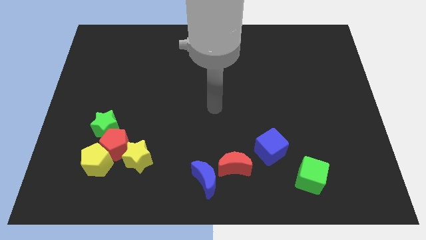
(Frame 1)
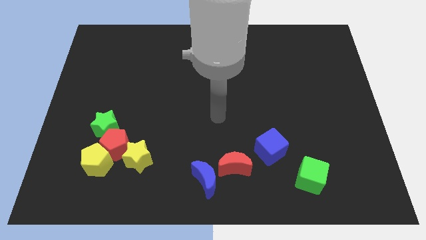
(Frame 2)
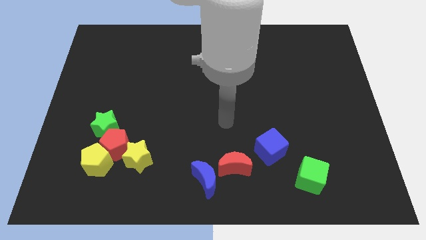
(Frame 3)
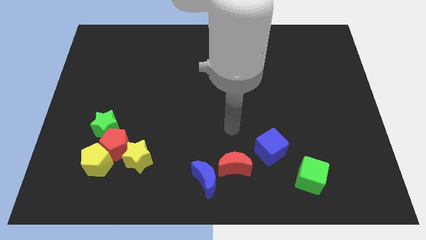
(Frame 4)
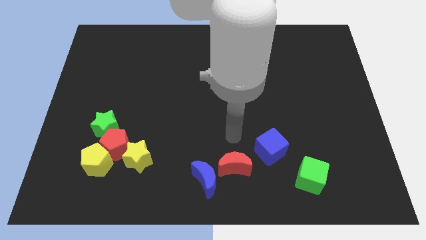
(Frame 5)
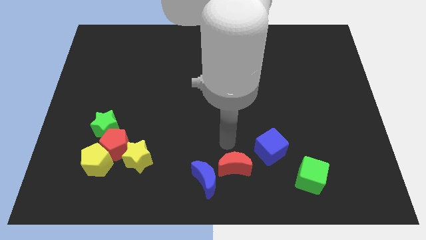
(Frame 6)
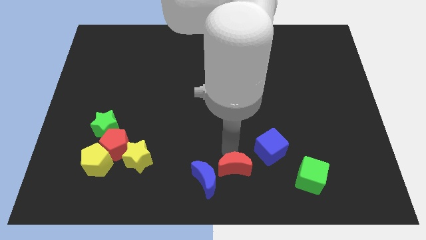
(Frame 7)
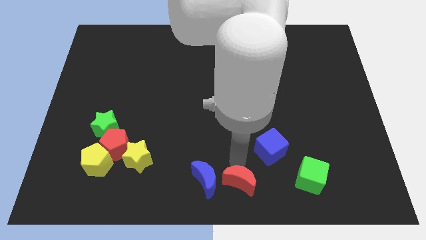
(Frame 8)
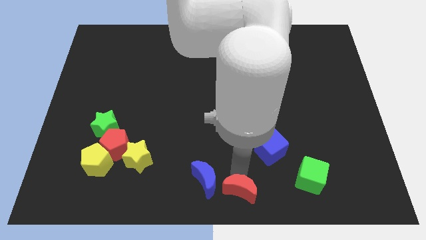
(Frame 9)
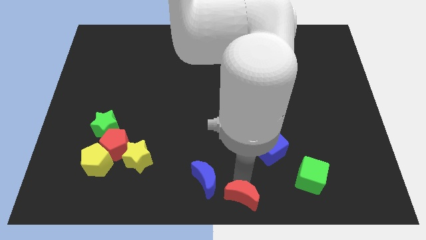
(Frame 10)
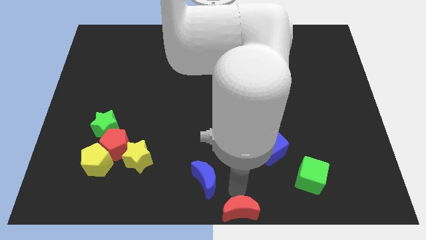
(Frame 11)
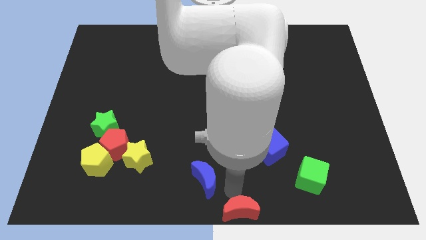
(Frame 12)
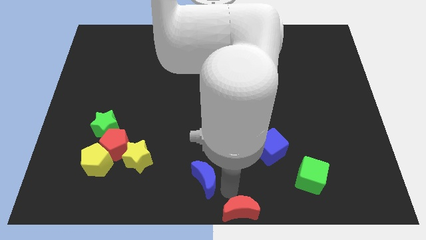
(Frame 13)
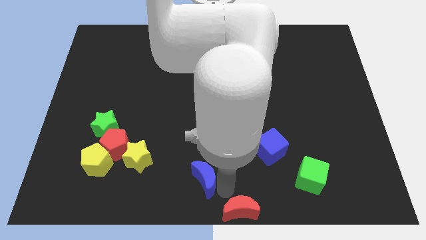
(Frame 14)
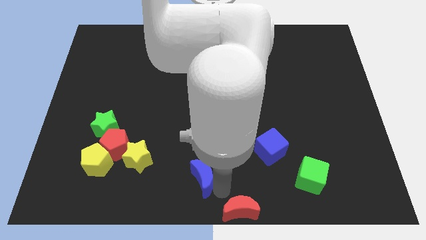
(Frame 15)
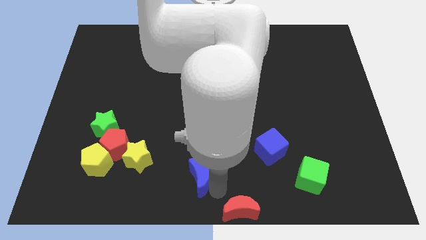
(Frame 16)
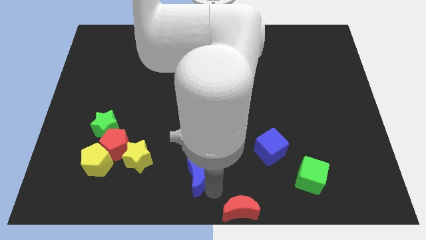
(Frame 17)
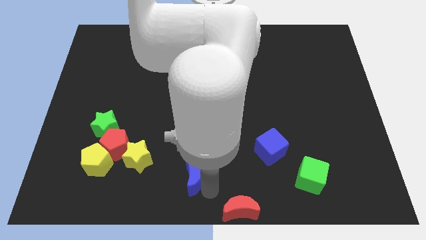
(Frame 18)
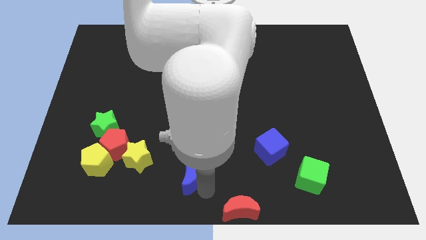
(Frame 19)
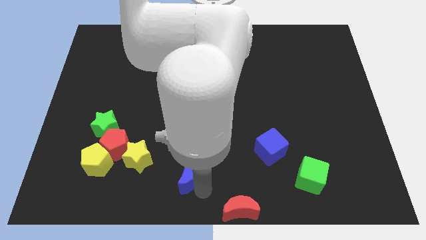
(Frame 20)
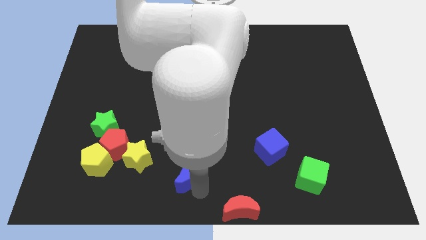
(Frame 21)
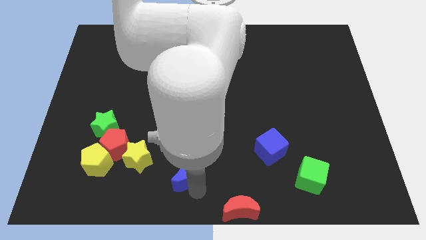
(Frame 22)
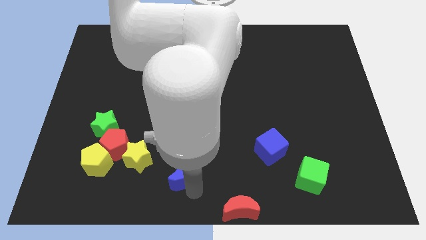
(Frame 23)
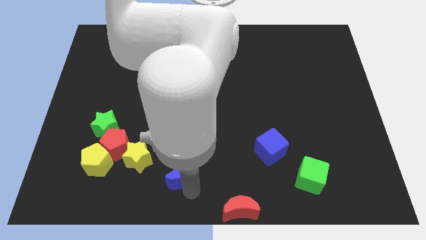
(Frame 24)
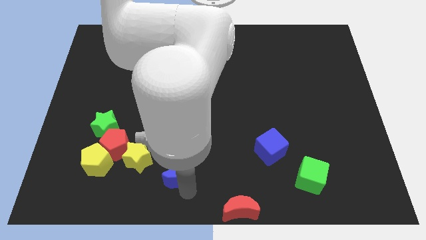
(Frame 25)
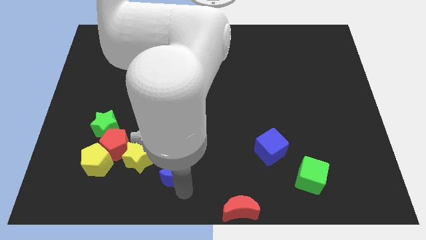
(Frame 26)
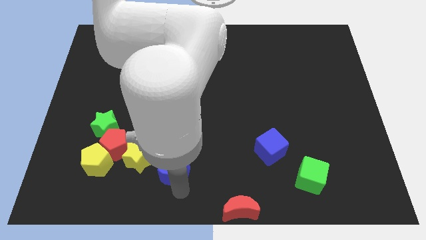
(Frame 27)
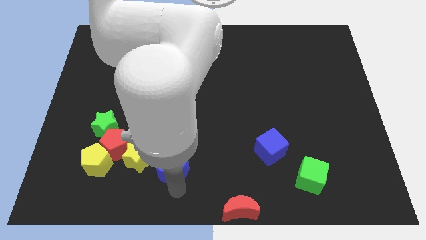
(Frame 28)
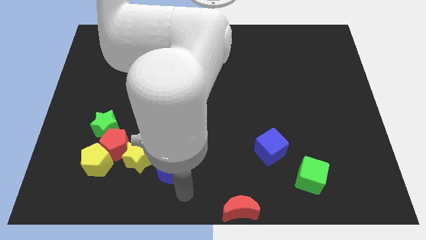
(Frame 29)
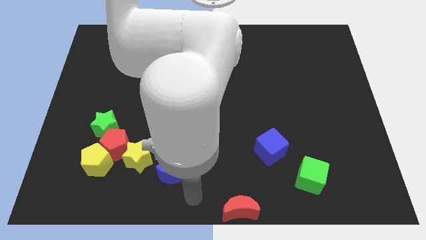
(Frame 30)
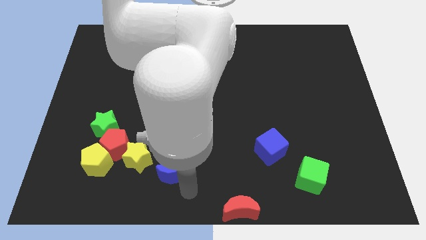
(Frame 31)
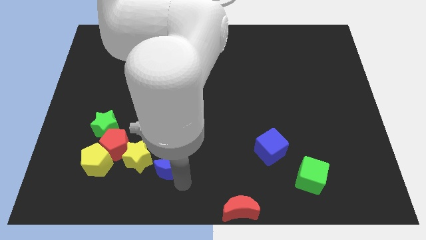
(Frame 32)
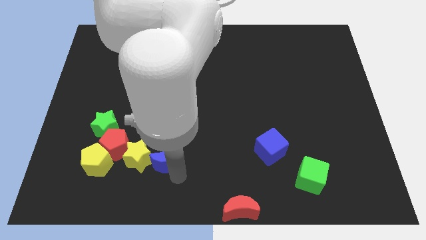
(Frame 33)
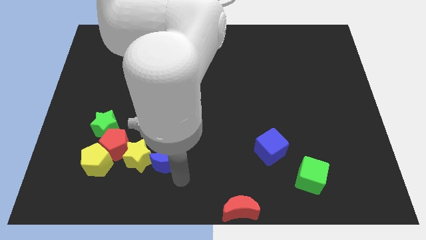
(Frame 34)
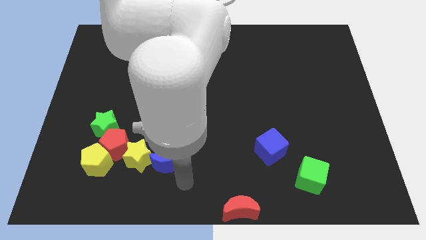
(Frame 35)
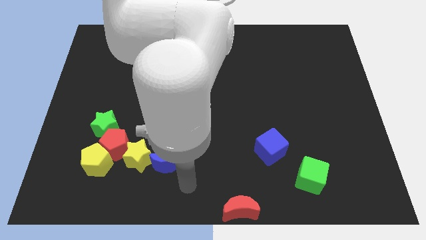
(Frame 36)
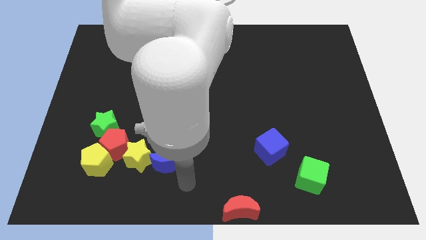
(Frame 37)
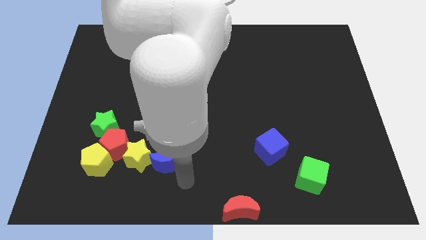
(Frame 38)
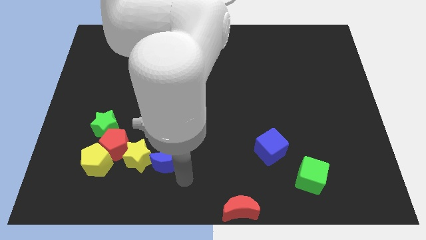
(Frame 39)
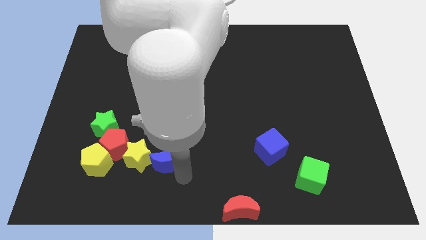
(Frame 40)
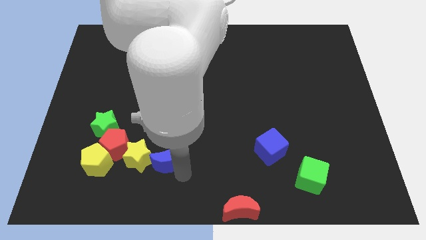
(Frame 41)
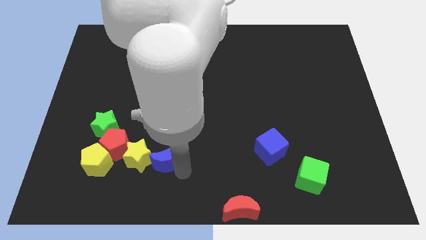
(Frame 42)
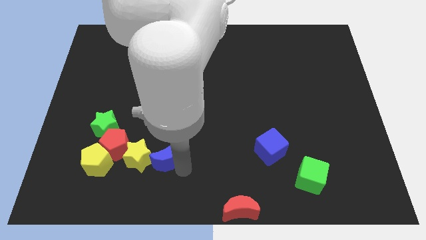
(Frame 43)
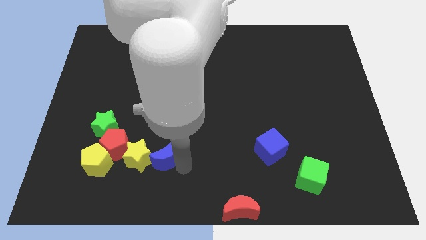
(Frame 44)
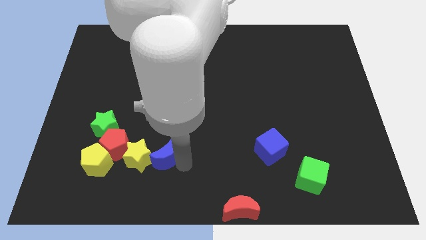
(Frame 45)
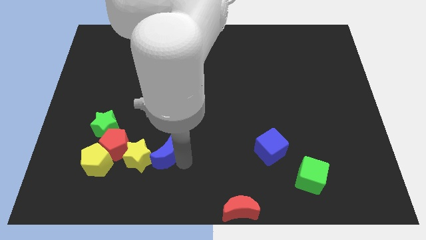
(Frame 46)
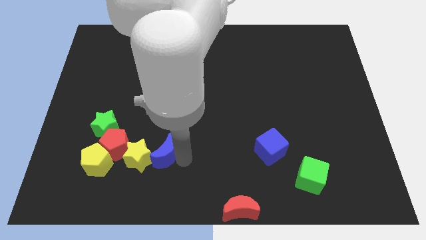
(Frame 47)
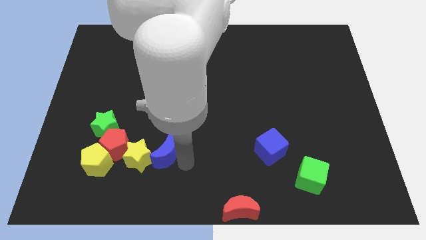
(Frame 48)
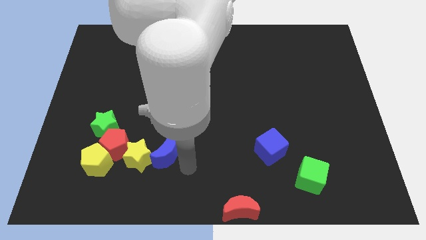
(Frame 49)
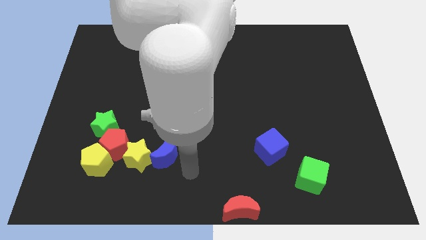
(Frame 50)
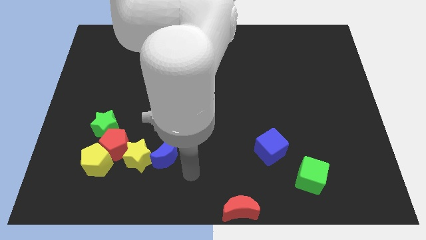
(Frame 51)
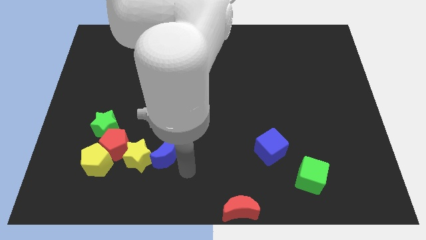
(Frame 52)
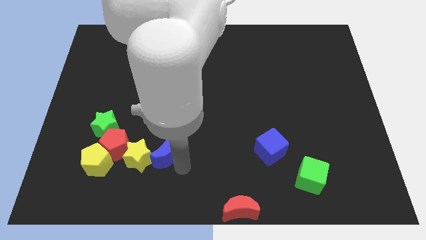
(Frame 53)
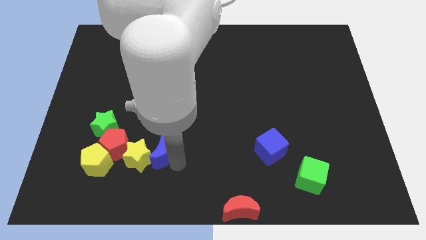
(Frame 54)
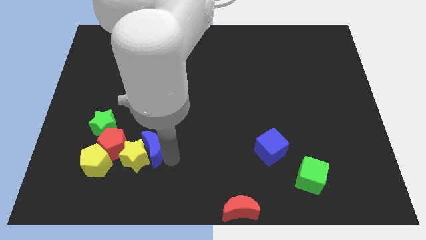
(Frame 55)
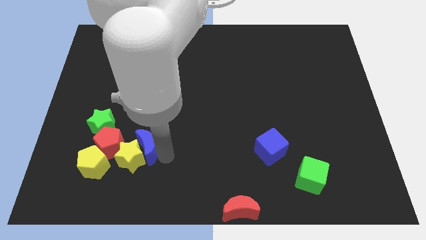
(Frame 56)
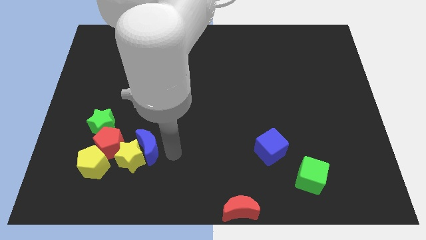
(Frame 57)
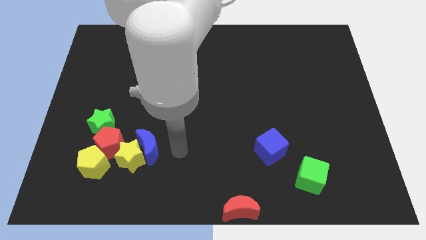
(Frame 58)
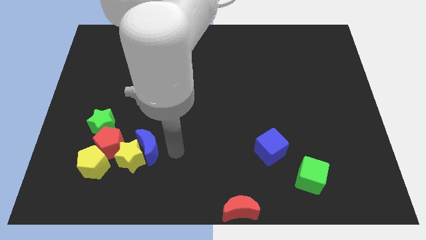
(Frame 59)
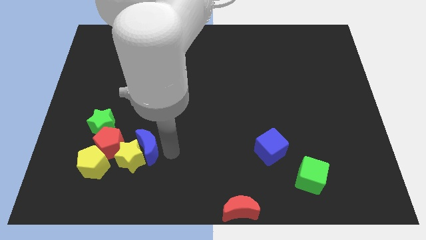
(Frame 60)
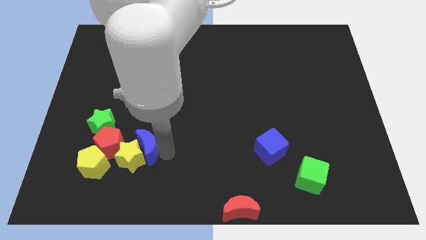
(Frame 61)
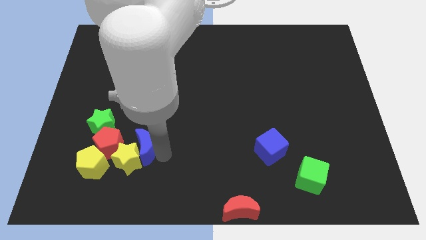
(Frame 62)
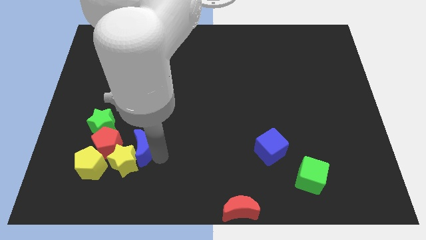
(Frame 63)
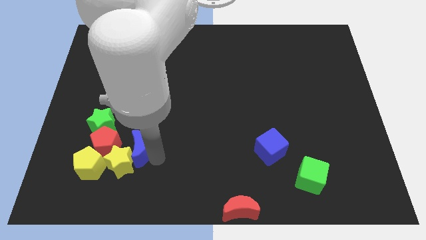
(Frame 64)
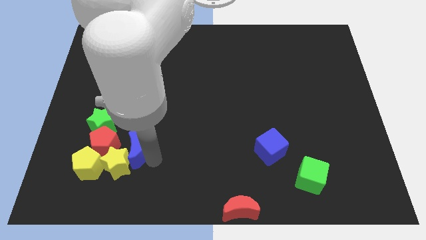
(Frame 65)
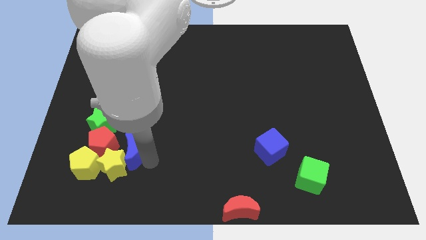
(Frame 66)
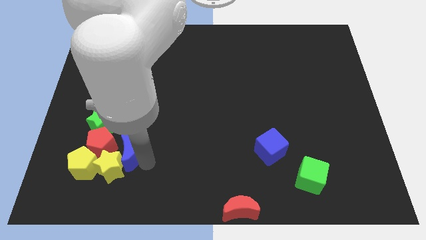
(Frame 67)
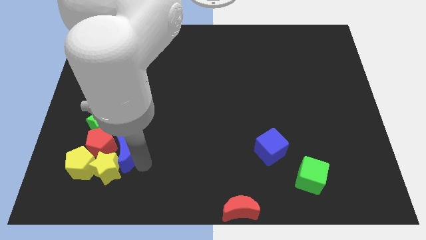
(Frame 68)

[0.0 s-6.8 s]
move the blue moon towards the red pentagon
